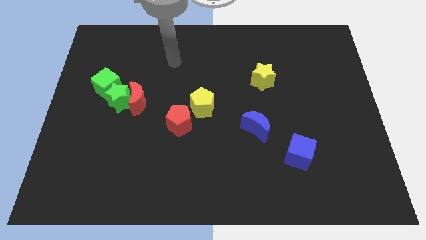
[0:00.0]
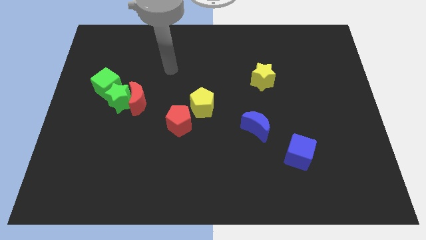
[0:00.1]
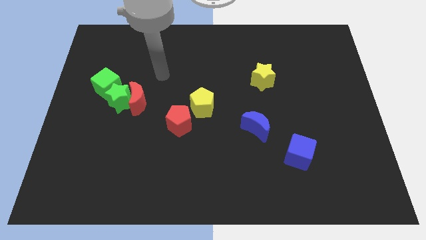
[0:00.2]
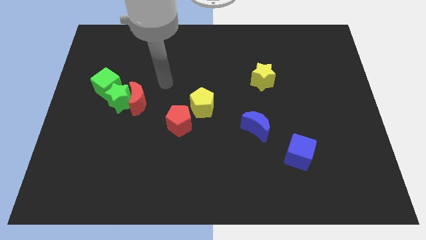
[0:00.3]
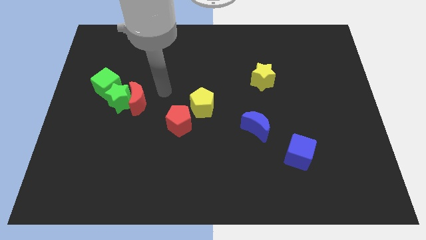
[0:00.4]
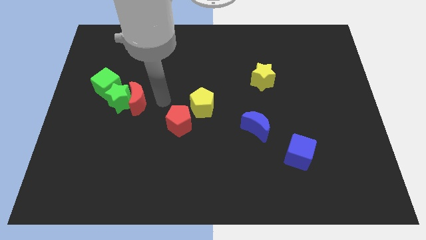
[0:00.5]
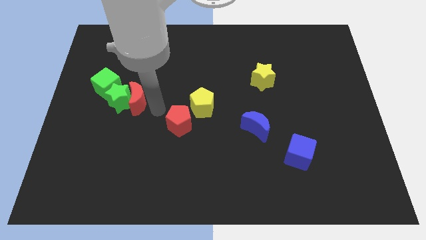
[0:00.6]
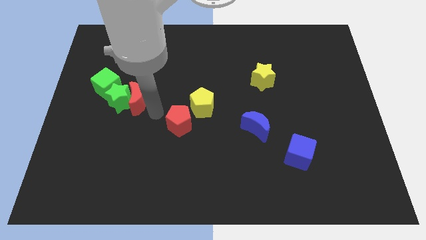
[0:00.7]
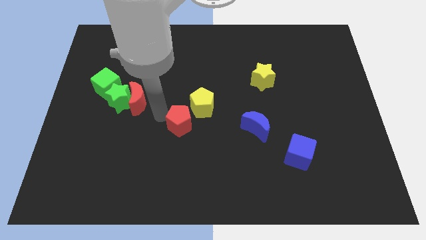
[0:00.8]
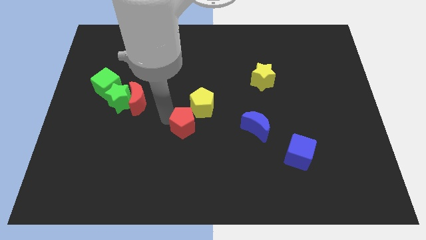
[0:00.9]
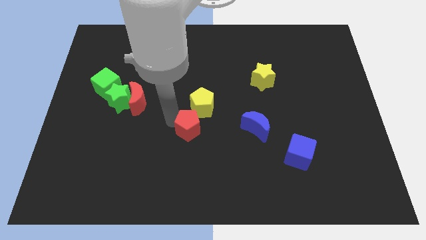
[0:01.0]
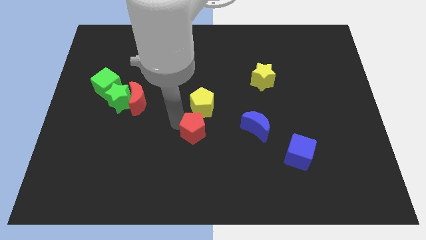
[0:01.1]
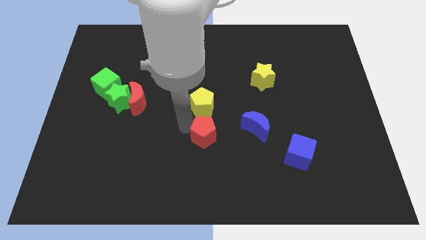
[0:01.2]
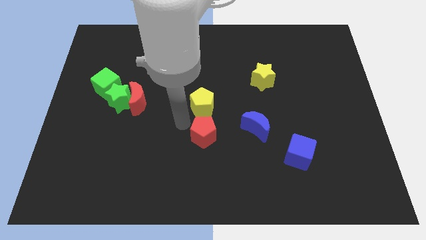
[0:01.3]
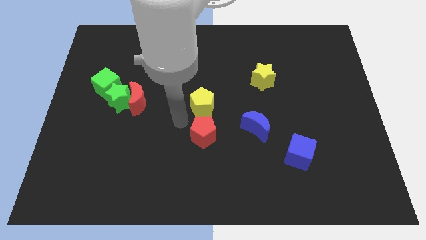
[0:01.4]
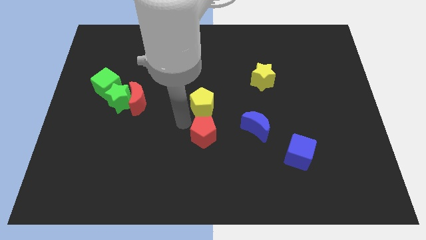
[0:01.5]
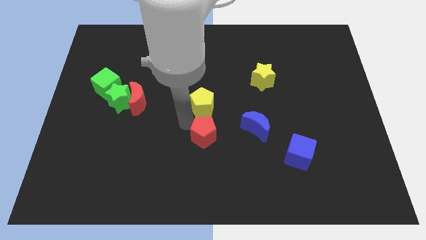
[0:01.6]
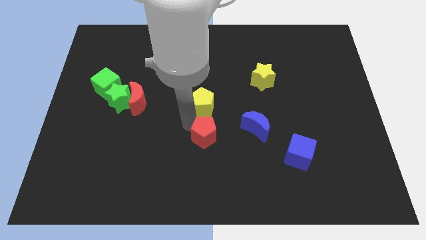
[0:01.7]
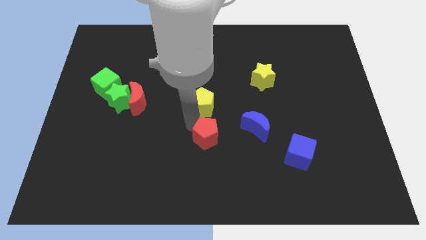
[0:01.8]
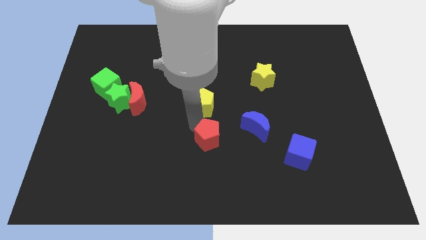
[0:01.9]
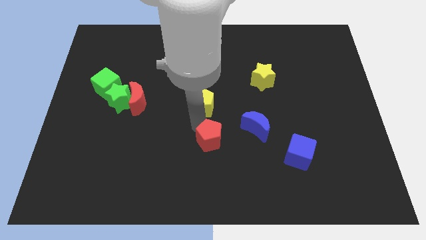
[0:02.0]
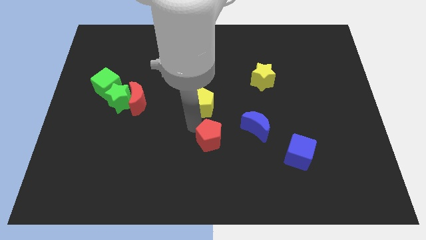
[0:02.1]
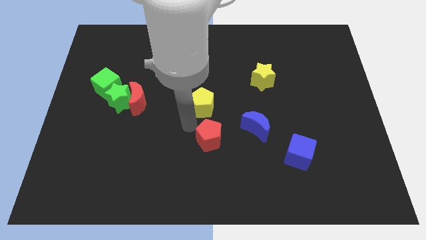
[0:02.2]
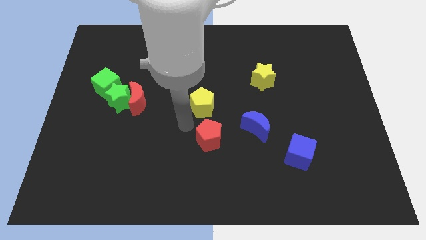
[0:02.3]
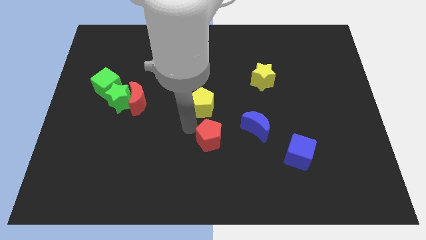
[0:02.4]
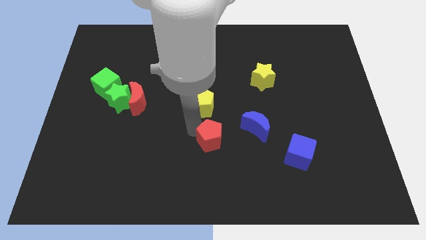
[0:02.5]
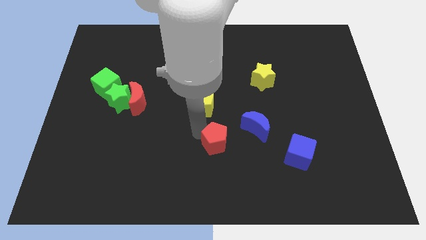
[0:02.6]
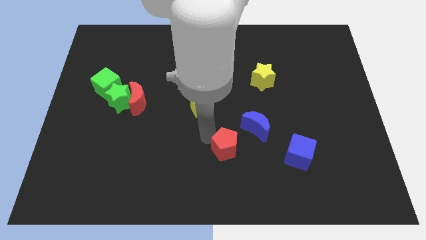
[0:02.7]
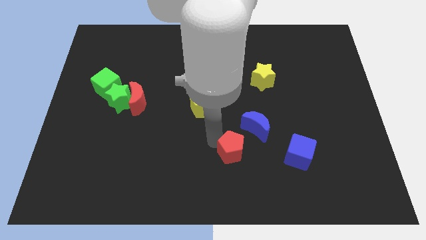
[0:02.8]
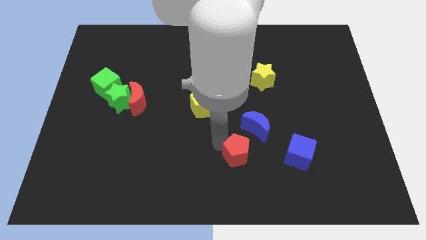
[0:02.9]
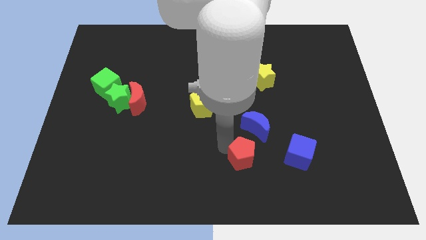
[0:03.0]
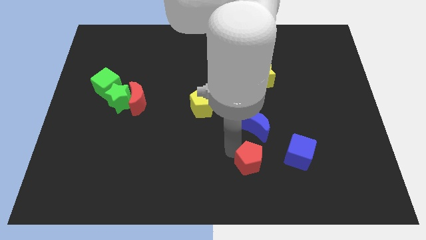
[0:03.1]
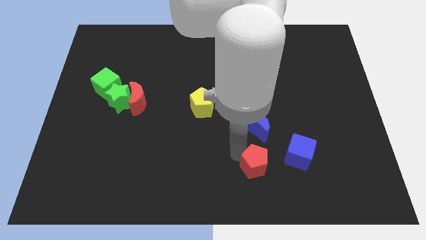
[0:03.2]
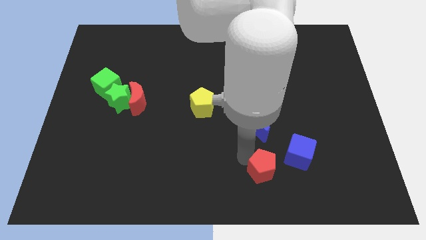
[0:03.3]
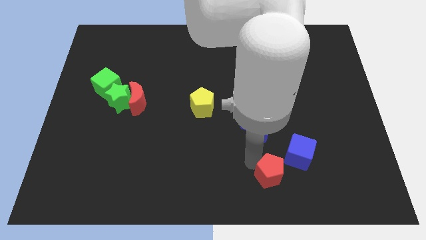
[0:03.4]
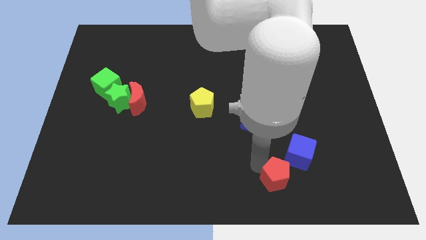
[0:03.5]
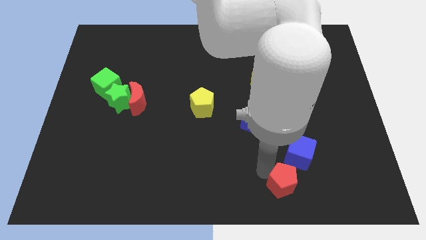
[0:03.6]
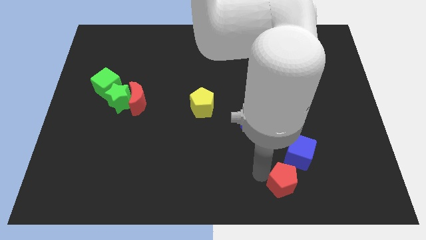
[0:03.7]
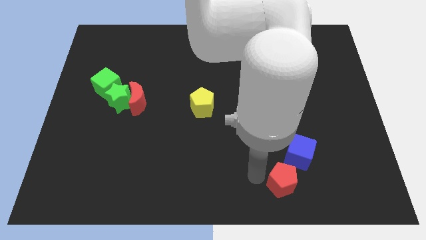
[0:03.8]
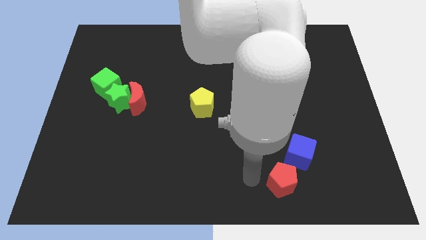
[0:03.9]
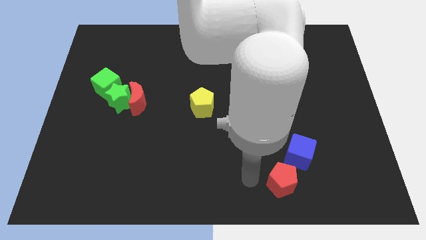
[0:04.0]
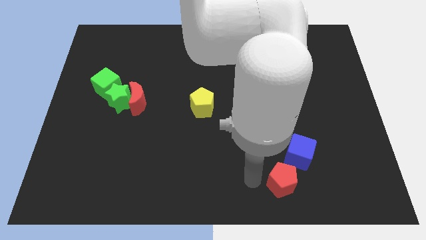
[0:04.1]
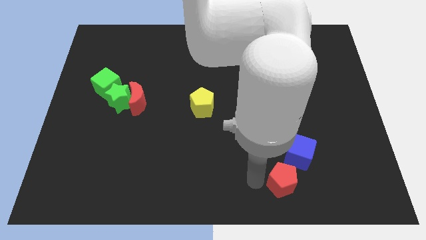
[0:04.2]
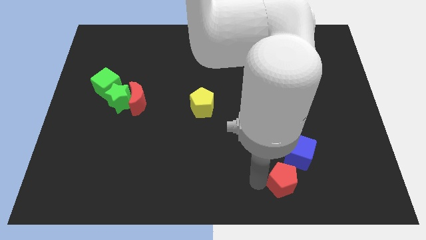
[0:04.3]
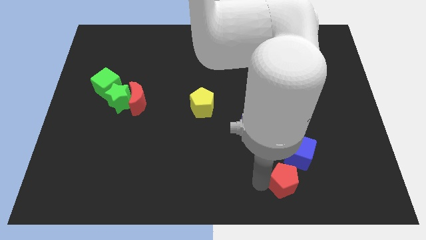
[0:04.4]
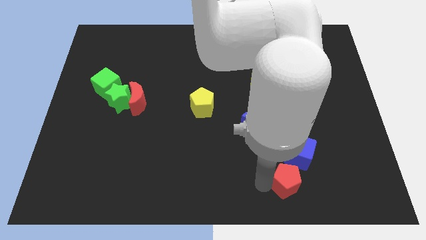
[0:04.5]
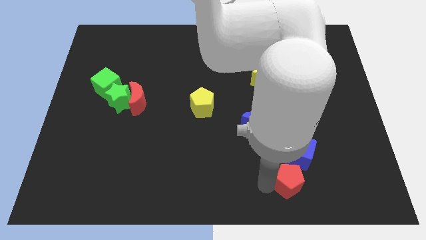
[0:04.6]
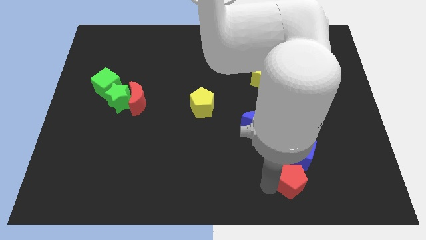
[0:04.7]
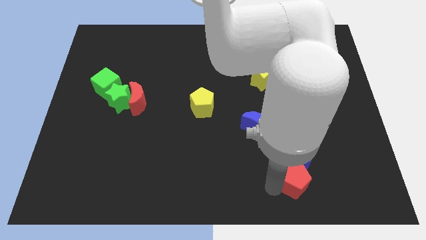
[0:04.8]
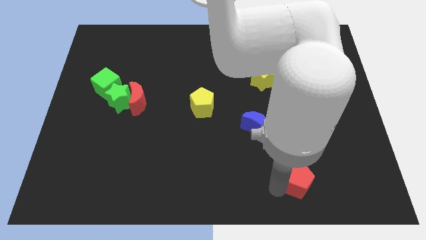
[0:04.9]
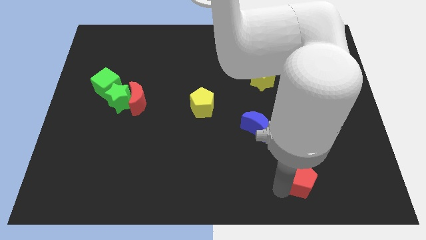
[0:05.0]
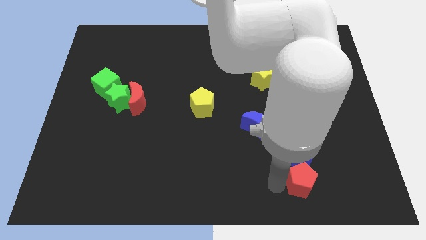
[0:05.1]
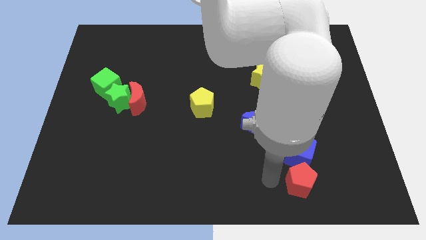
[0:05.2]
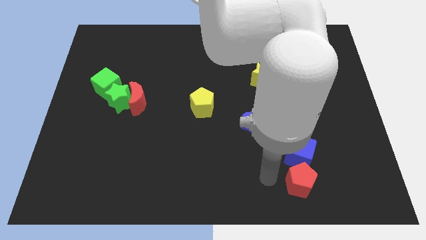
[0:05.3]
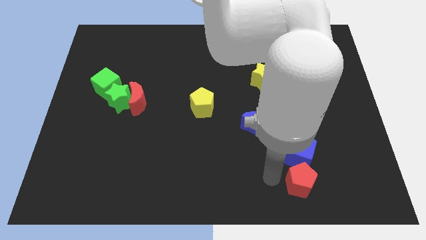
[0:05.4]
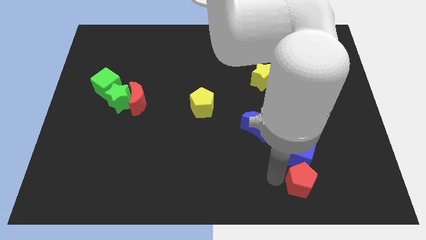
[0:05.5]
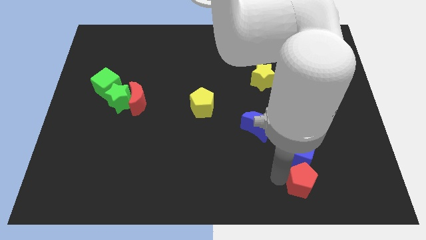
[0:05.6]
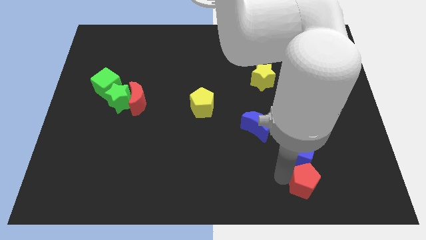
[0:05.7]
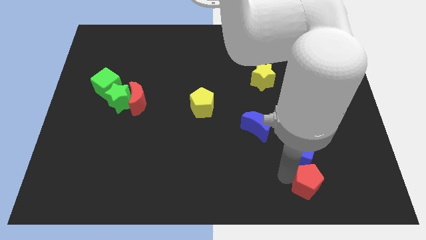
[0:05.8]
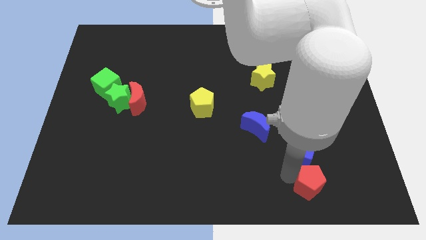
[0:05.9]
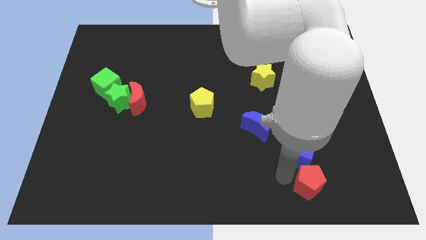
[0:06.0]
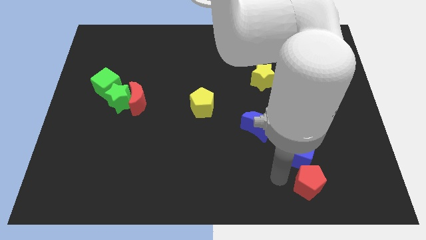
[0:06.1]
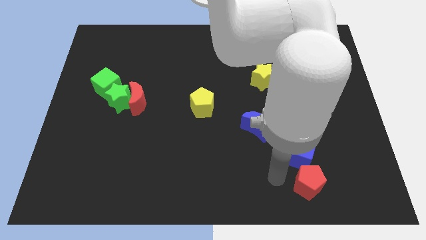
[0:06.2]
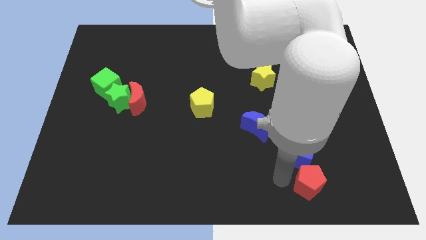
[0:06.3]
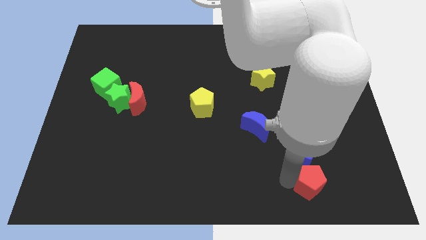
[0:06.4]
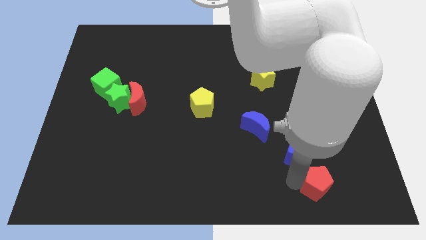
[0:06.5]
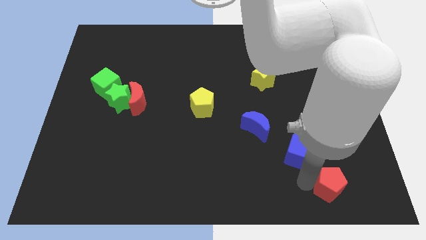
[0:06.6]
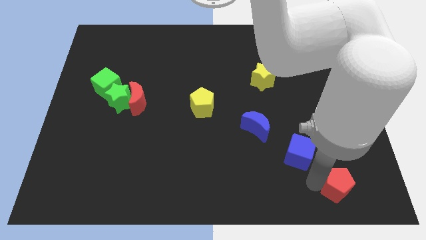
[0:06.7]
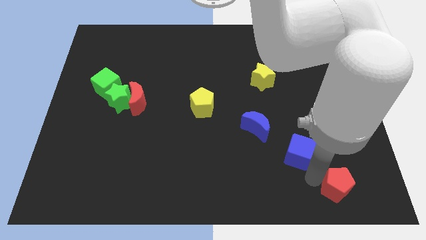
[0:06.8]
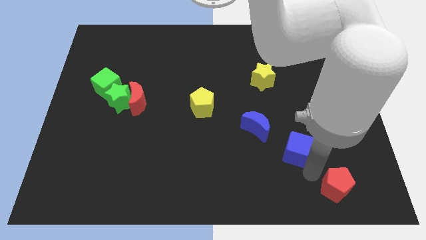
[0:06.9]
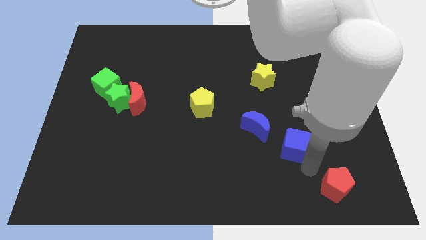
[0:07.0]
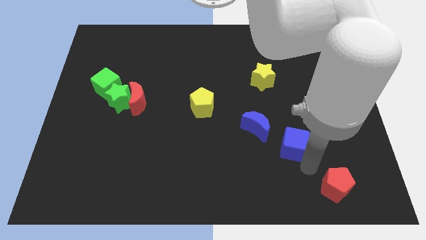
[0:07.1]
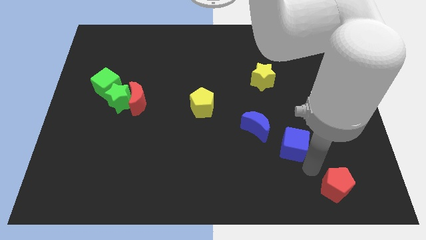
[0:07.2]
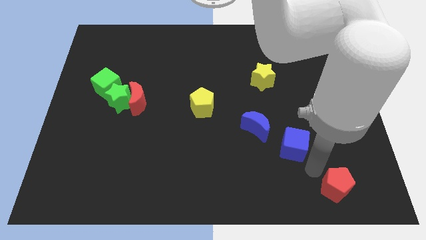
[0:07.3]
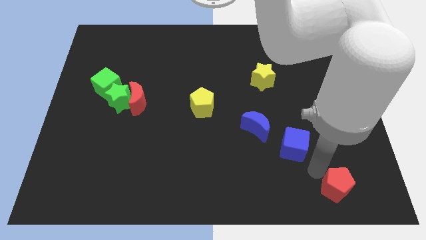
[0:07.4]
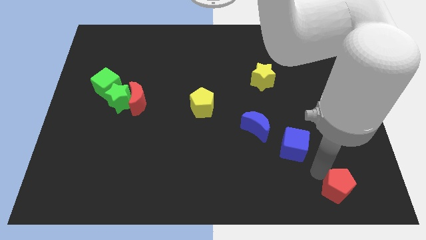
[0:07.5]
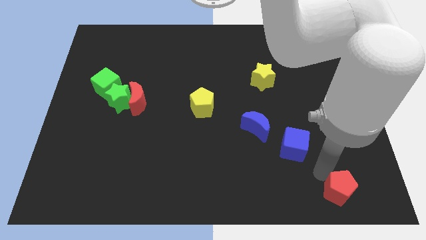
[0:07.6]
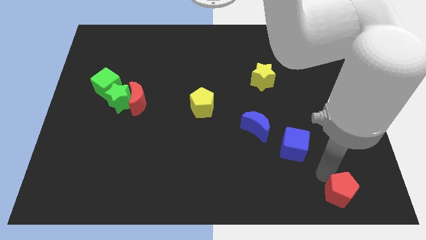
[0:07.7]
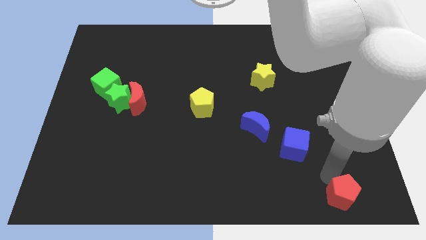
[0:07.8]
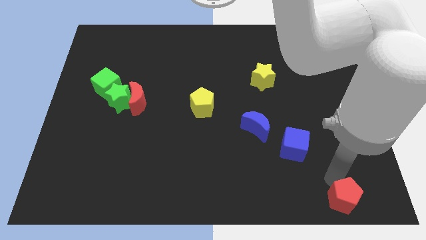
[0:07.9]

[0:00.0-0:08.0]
push the red pentagon to the bottom right of the board
